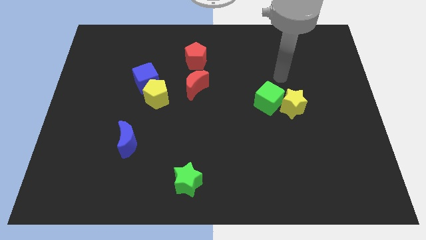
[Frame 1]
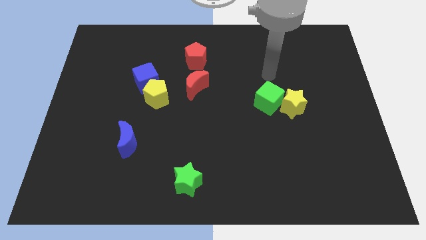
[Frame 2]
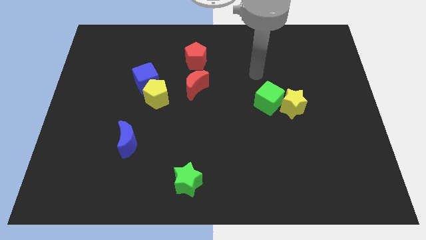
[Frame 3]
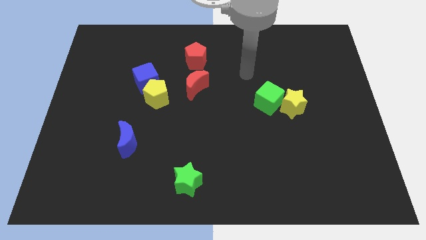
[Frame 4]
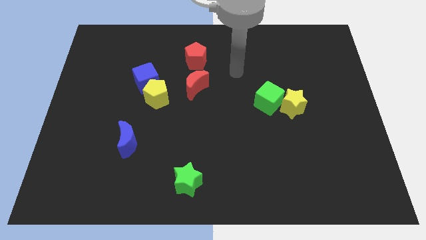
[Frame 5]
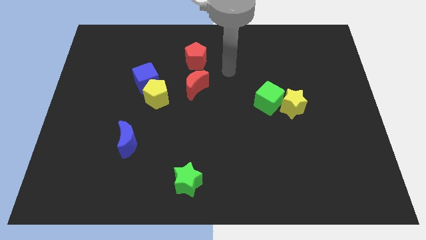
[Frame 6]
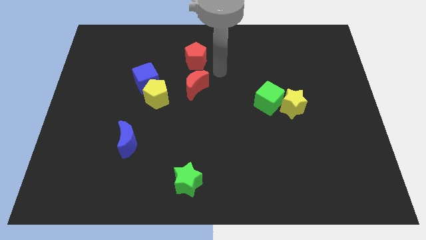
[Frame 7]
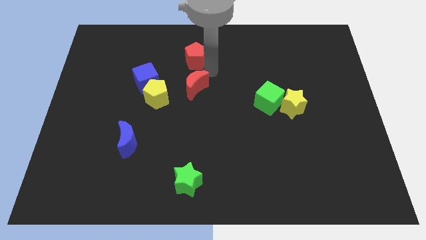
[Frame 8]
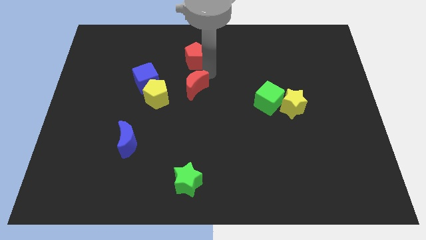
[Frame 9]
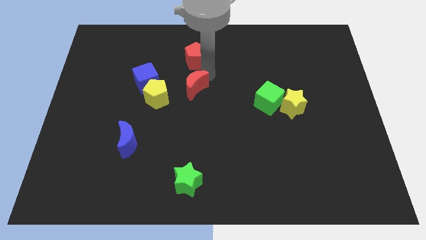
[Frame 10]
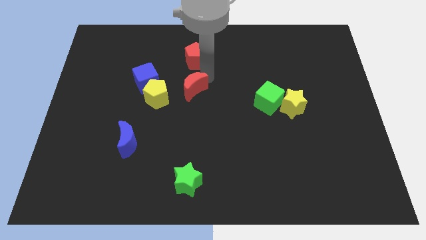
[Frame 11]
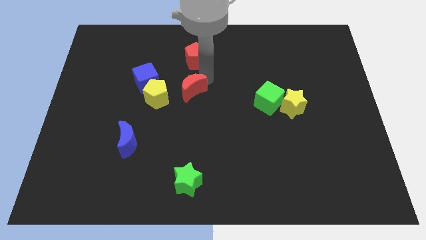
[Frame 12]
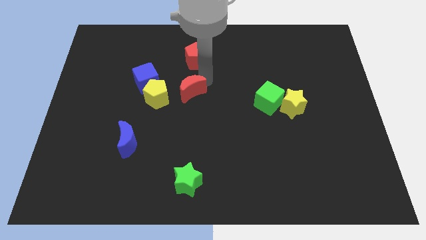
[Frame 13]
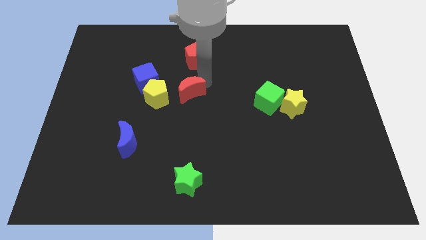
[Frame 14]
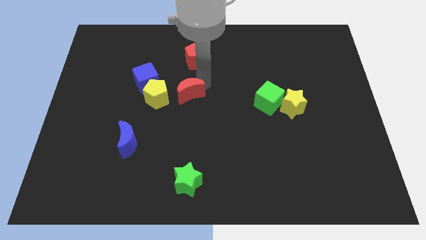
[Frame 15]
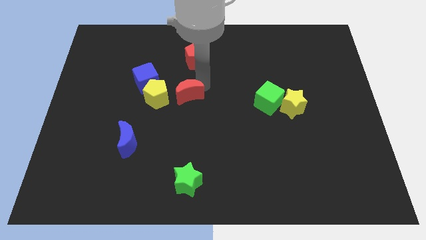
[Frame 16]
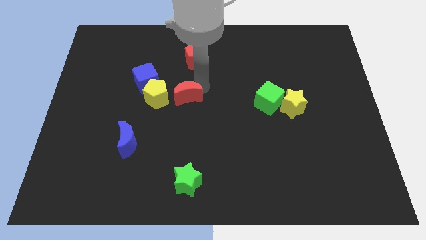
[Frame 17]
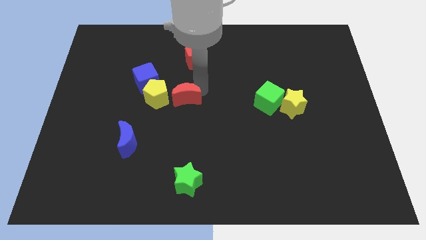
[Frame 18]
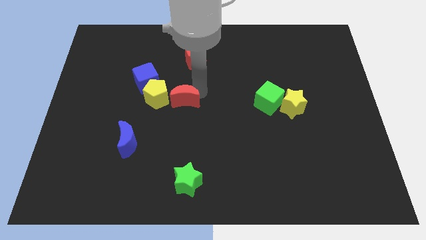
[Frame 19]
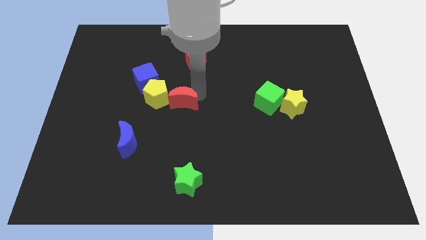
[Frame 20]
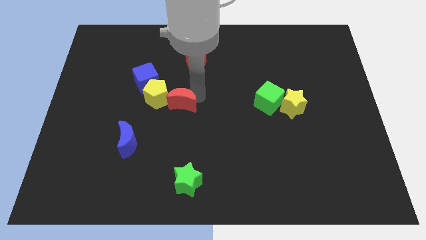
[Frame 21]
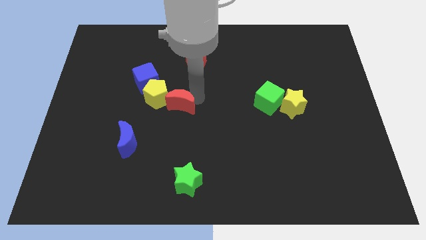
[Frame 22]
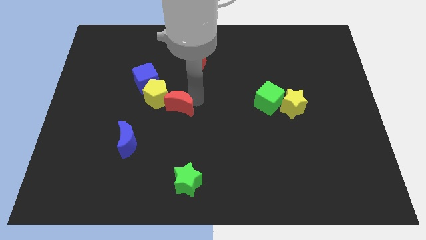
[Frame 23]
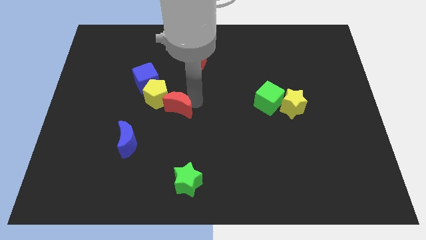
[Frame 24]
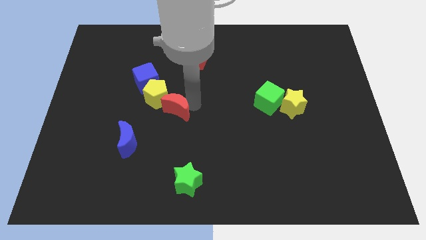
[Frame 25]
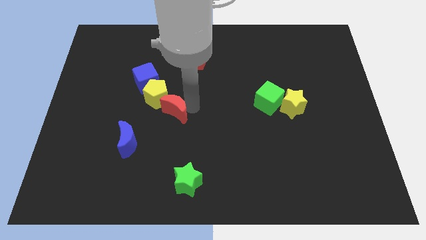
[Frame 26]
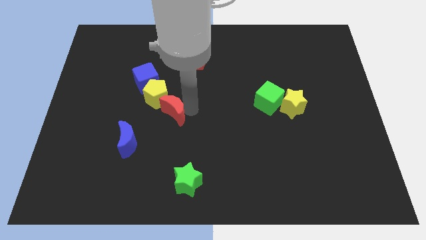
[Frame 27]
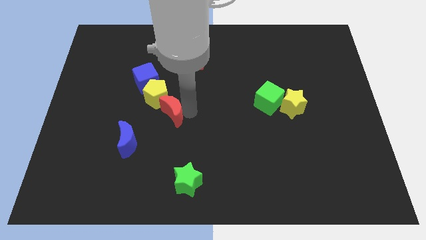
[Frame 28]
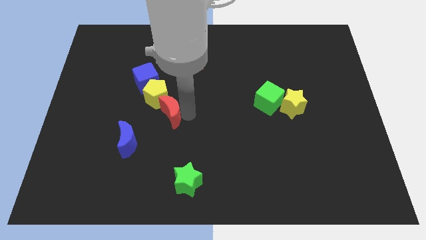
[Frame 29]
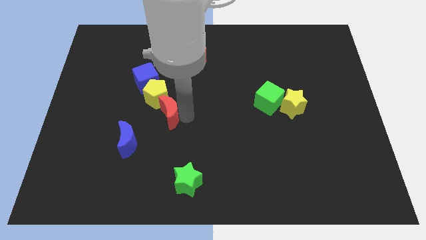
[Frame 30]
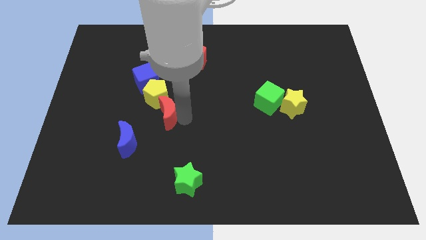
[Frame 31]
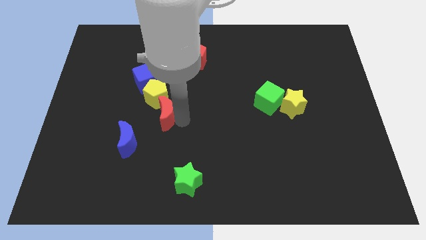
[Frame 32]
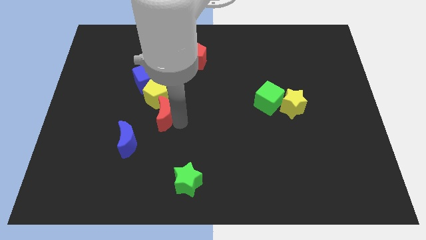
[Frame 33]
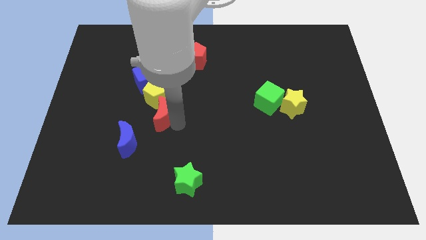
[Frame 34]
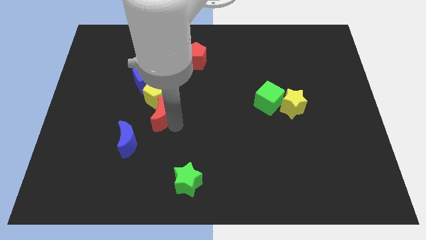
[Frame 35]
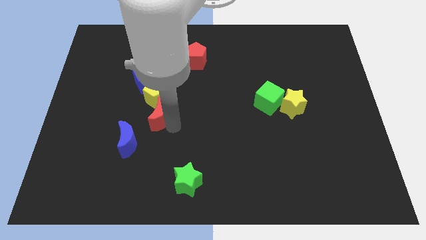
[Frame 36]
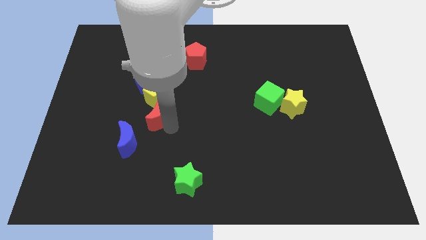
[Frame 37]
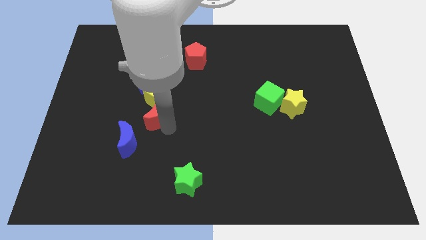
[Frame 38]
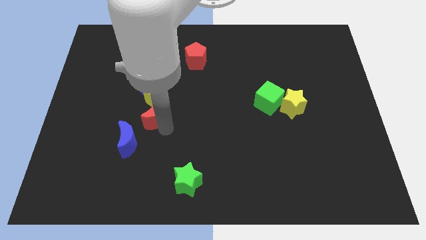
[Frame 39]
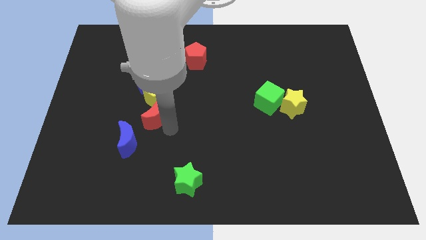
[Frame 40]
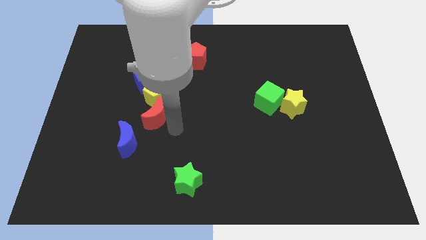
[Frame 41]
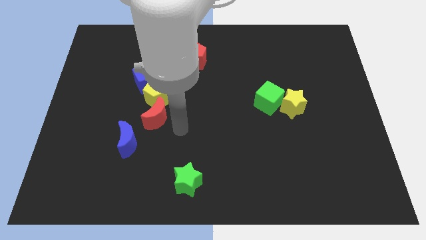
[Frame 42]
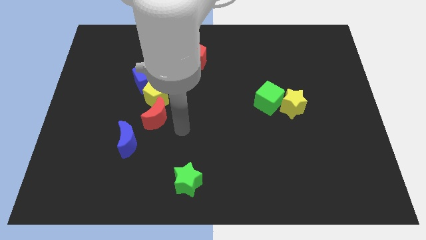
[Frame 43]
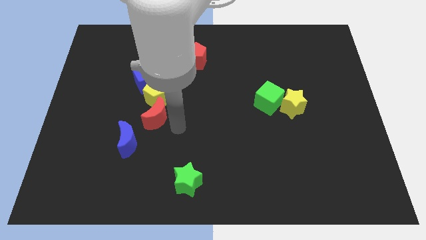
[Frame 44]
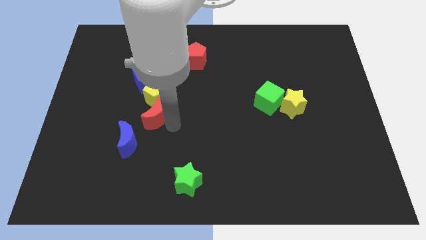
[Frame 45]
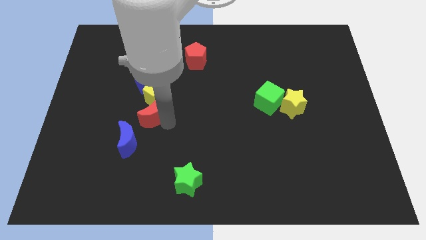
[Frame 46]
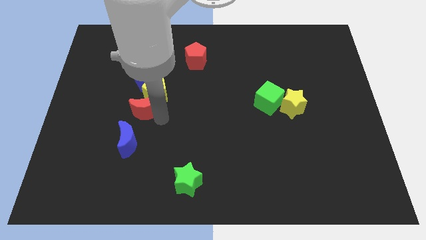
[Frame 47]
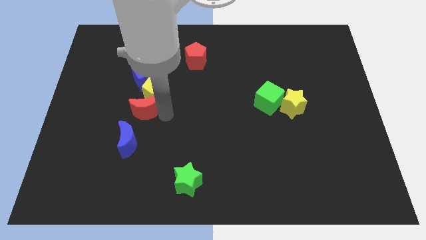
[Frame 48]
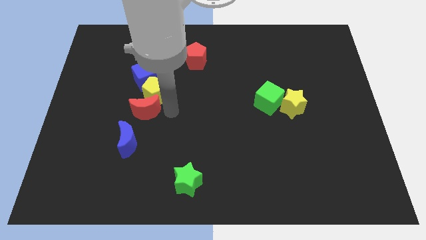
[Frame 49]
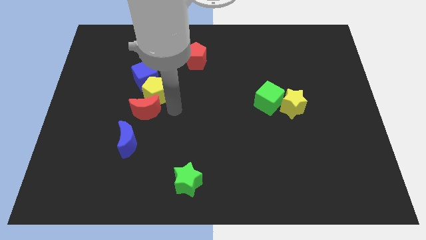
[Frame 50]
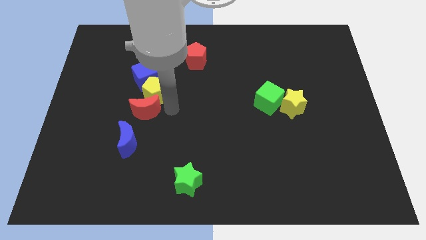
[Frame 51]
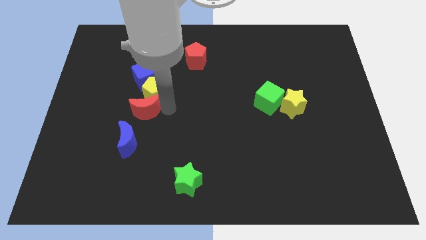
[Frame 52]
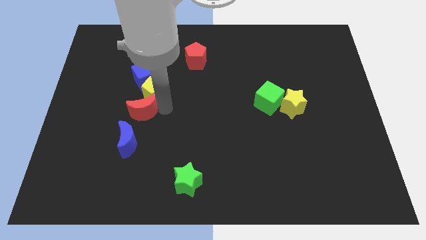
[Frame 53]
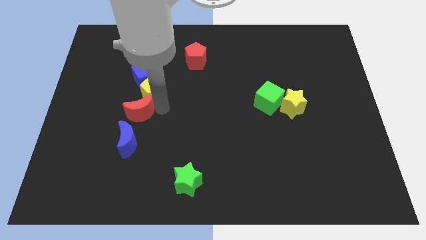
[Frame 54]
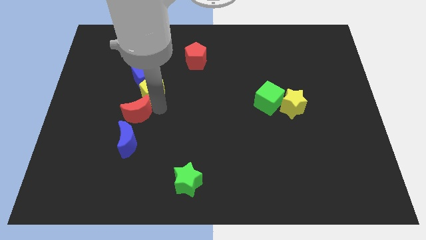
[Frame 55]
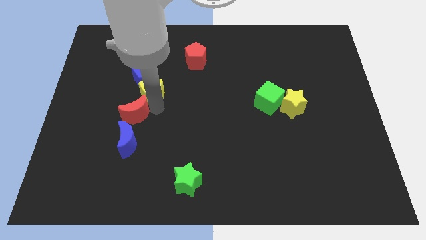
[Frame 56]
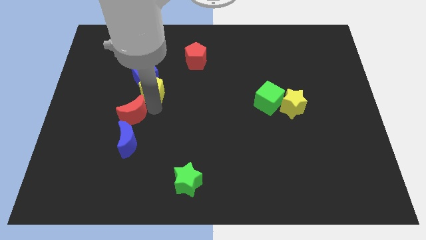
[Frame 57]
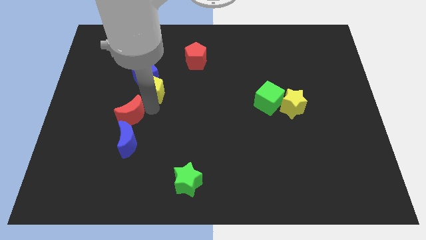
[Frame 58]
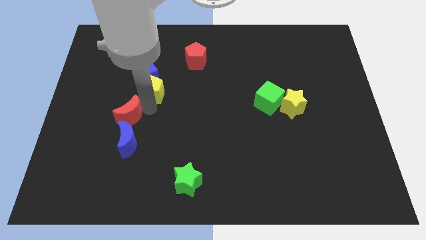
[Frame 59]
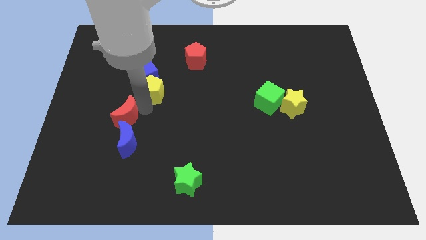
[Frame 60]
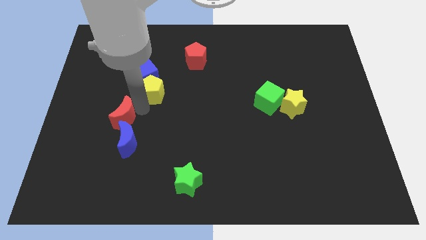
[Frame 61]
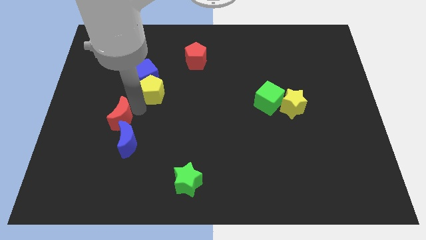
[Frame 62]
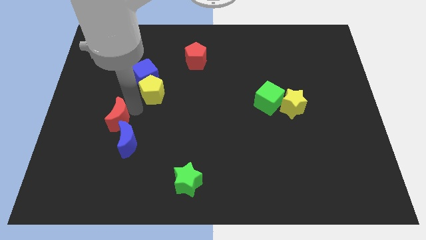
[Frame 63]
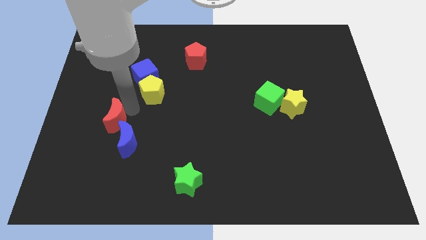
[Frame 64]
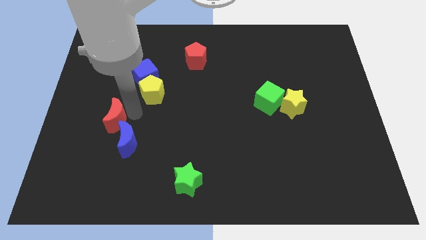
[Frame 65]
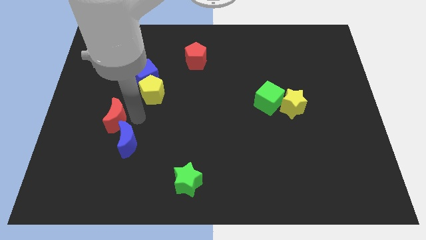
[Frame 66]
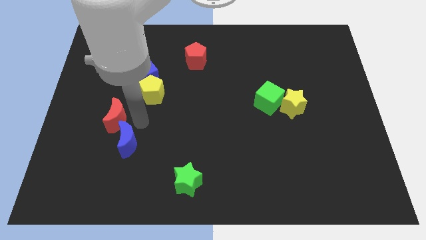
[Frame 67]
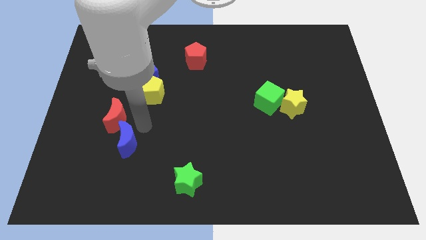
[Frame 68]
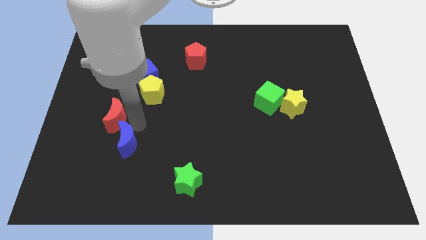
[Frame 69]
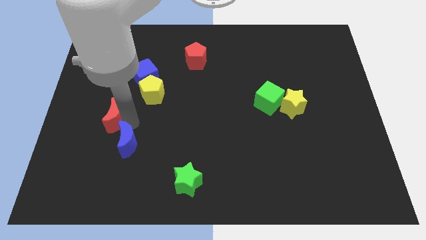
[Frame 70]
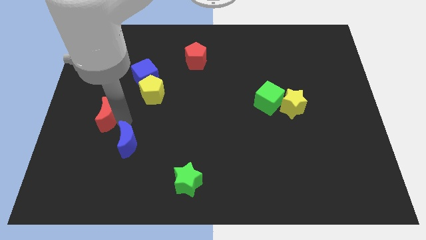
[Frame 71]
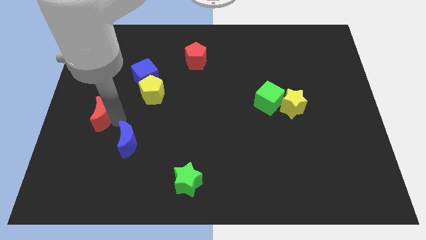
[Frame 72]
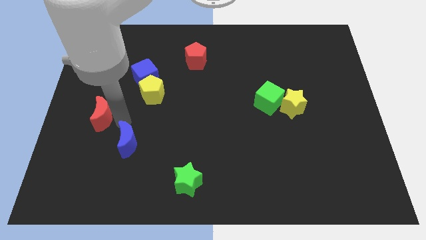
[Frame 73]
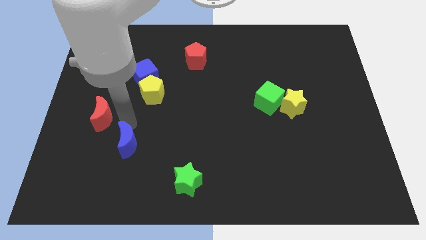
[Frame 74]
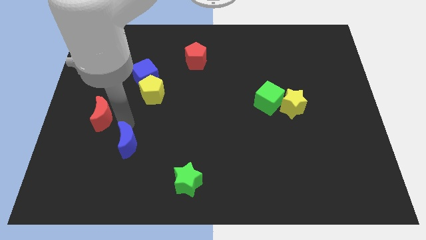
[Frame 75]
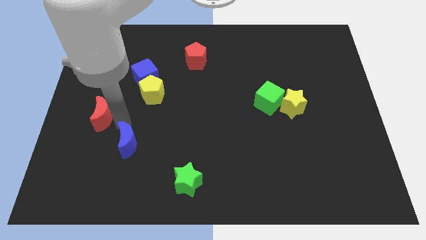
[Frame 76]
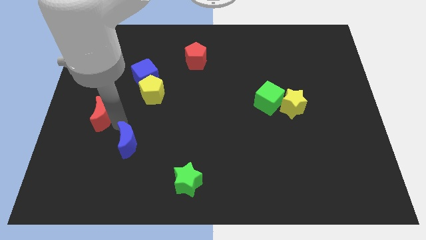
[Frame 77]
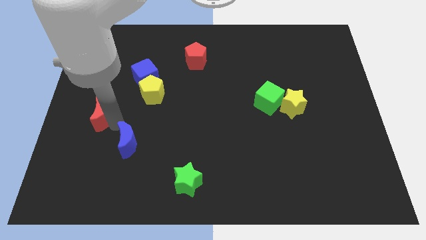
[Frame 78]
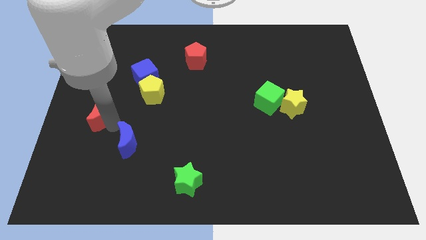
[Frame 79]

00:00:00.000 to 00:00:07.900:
slide the red moon to the left side
